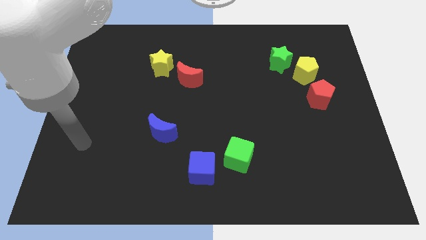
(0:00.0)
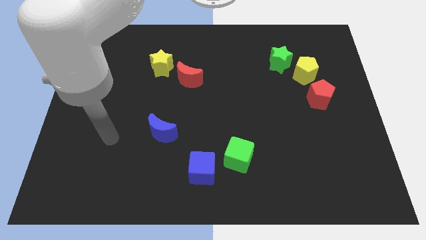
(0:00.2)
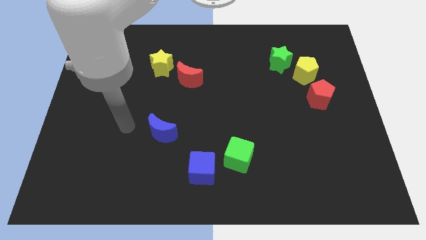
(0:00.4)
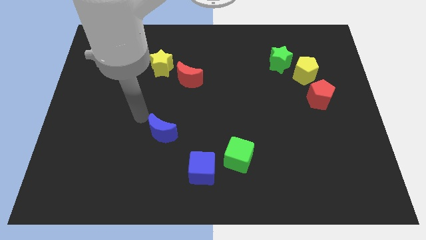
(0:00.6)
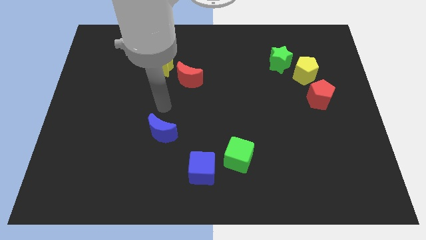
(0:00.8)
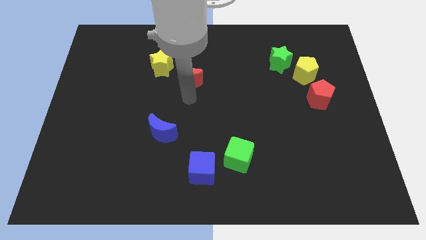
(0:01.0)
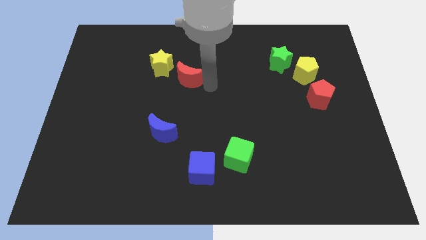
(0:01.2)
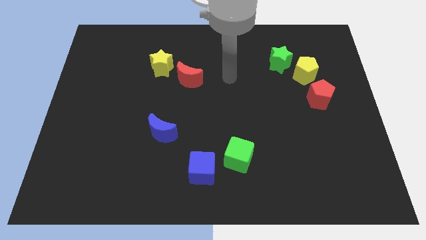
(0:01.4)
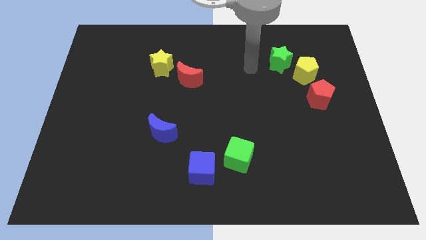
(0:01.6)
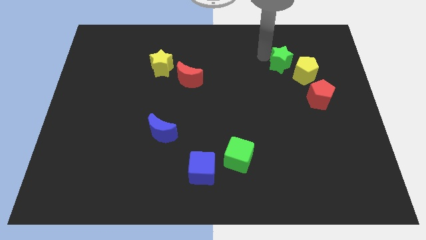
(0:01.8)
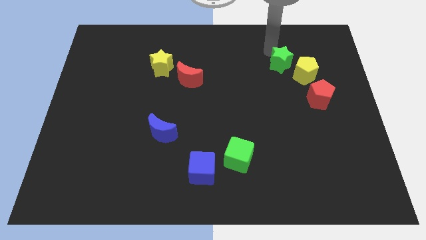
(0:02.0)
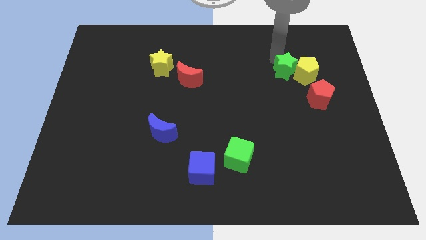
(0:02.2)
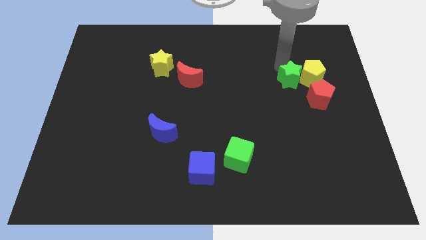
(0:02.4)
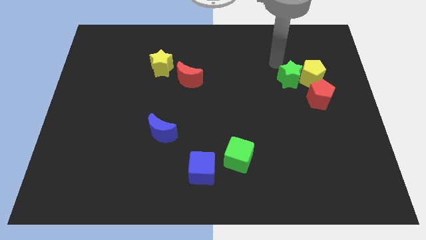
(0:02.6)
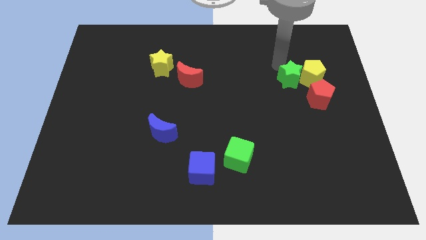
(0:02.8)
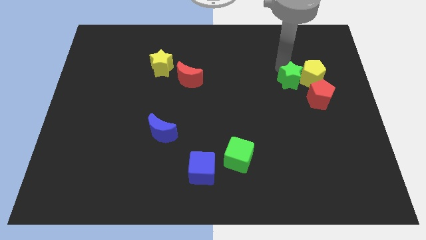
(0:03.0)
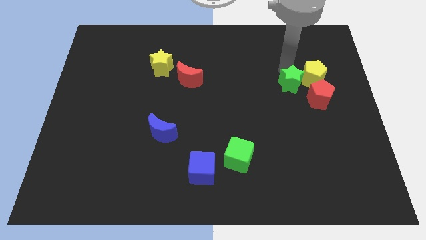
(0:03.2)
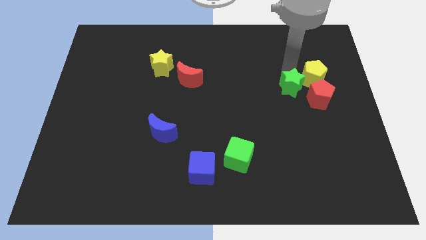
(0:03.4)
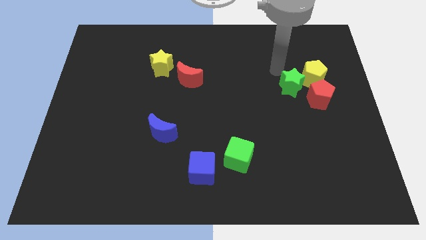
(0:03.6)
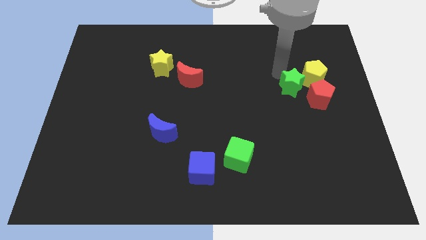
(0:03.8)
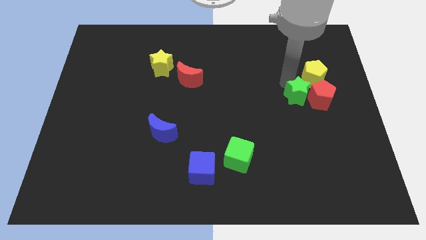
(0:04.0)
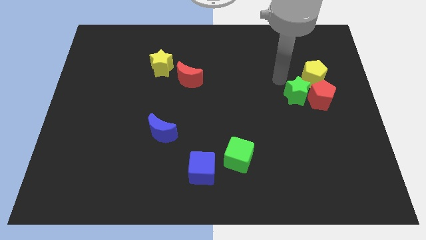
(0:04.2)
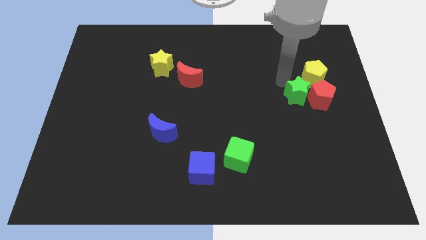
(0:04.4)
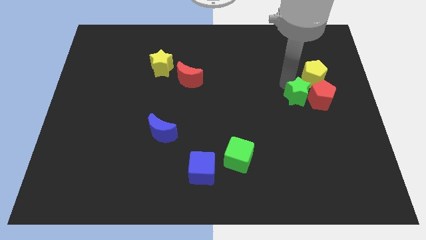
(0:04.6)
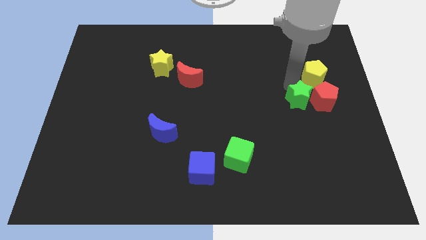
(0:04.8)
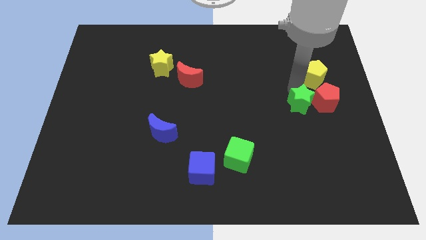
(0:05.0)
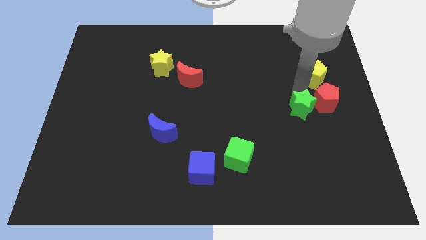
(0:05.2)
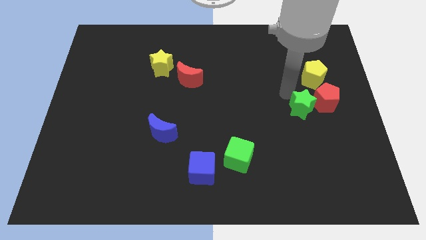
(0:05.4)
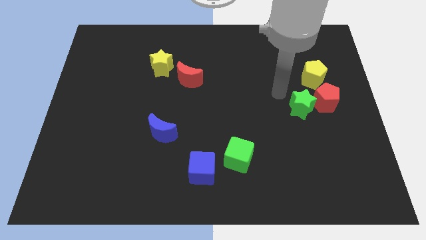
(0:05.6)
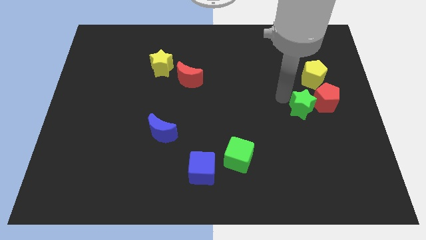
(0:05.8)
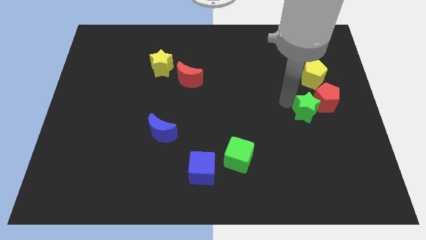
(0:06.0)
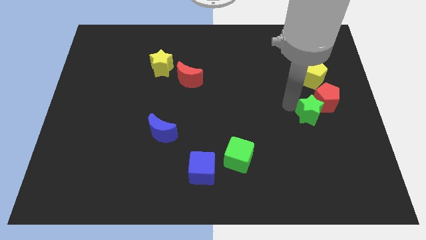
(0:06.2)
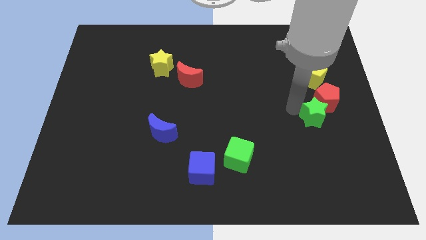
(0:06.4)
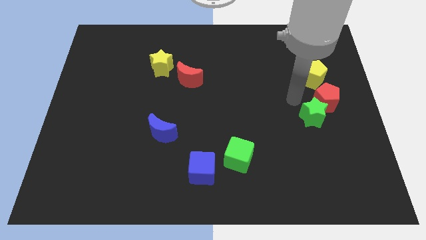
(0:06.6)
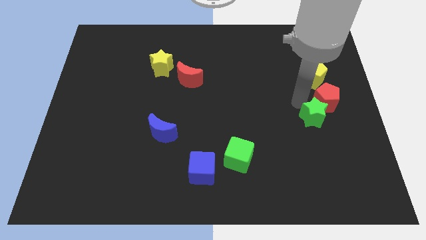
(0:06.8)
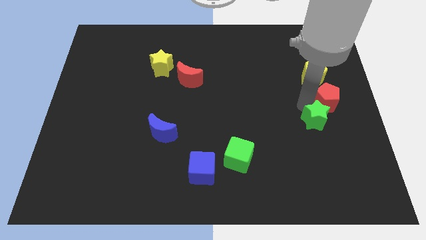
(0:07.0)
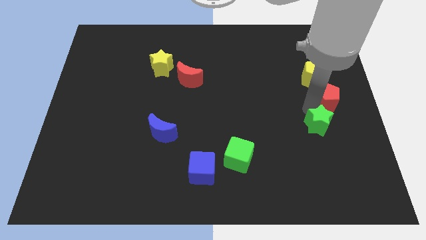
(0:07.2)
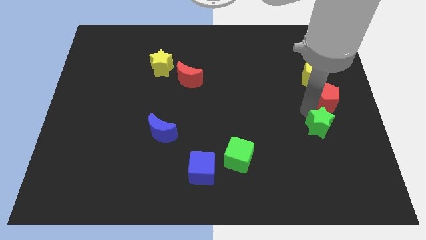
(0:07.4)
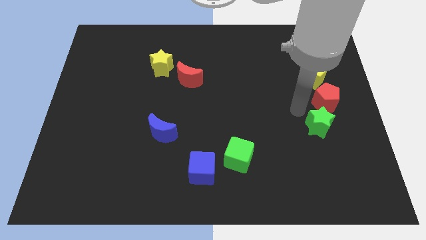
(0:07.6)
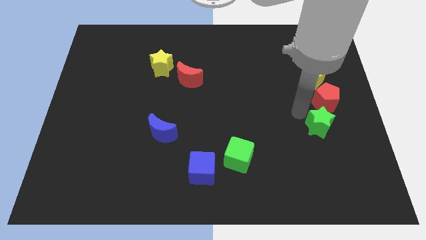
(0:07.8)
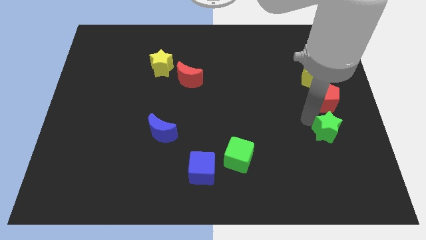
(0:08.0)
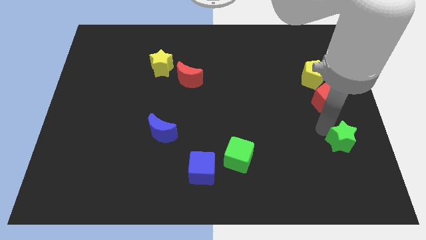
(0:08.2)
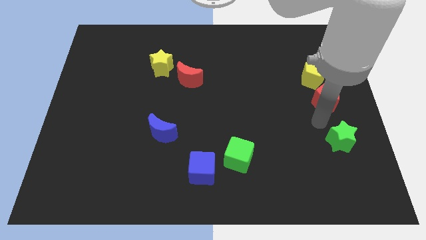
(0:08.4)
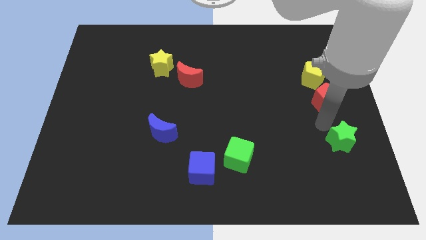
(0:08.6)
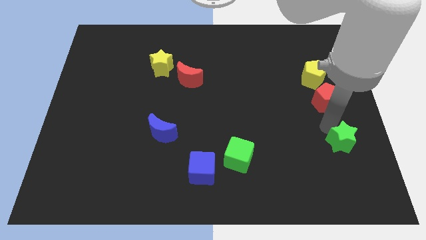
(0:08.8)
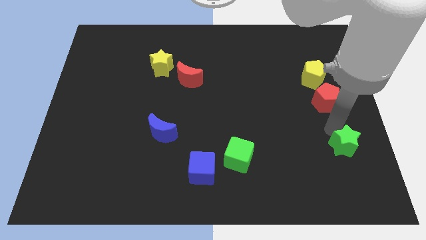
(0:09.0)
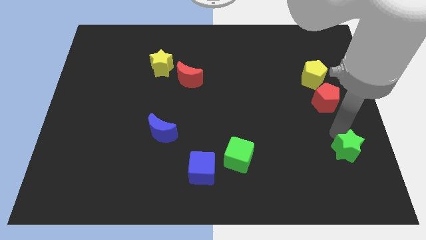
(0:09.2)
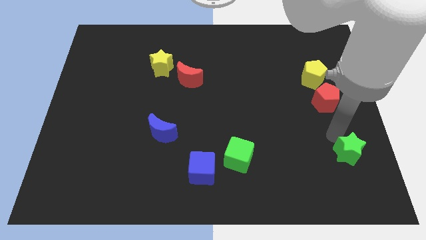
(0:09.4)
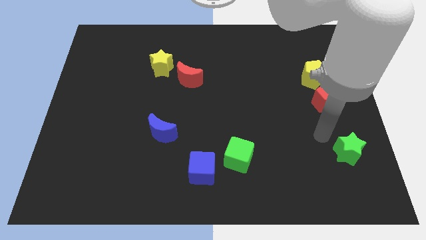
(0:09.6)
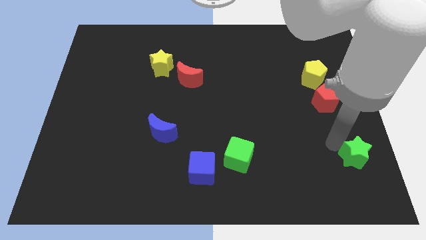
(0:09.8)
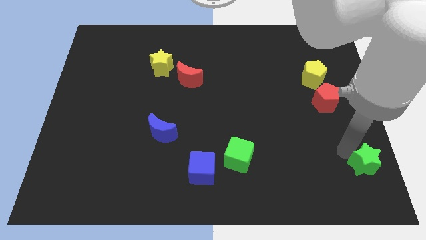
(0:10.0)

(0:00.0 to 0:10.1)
move the green star to the lower right corner

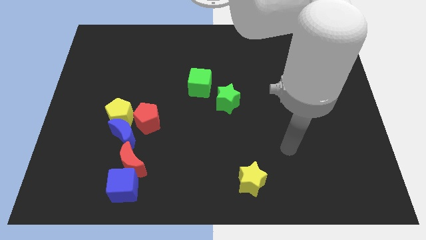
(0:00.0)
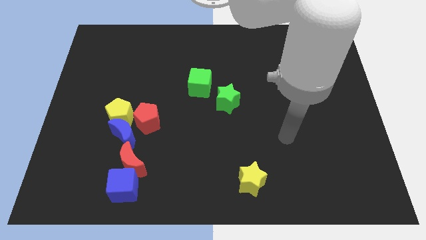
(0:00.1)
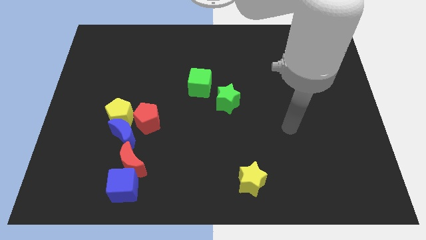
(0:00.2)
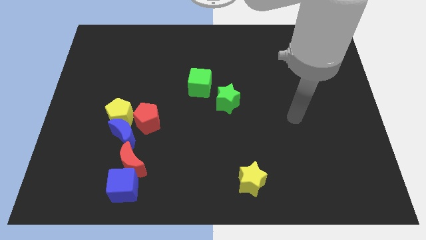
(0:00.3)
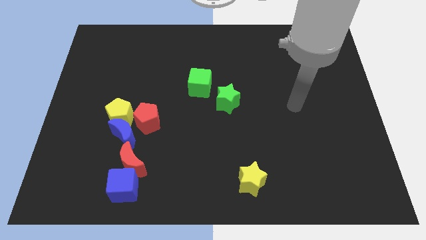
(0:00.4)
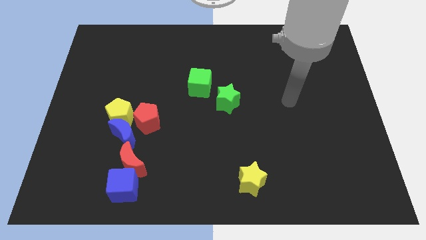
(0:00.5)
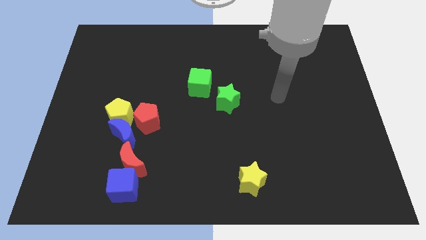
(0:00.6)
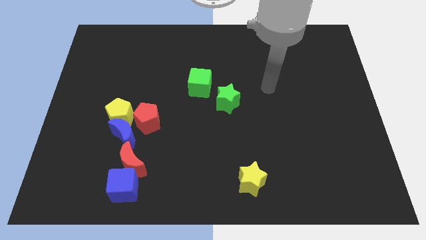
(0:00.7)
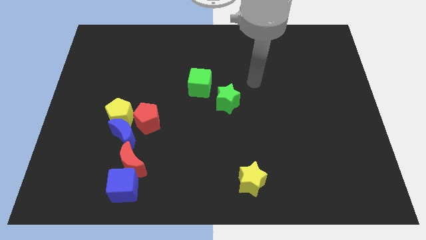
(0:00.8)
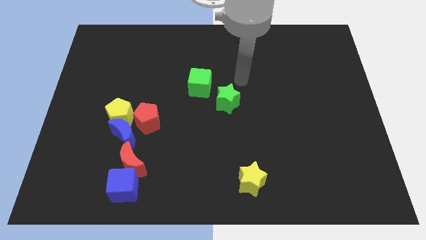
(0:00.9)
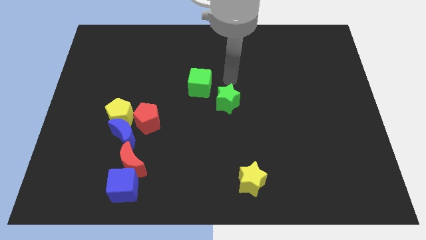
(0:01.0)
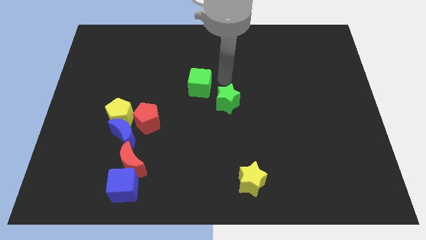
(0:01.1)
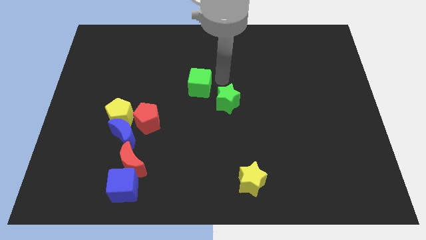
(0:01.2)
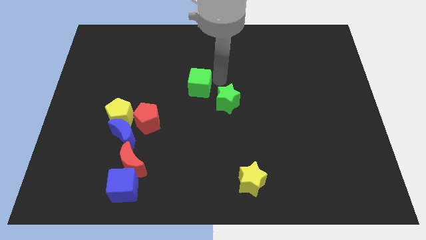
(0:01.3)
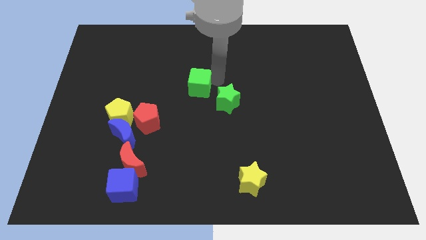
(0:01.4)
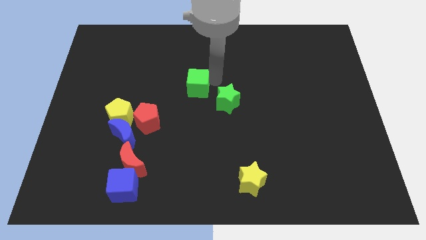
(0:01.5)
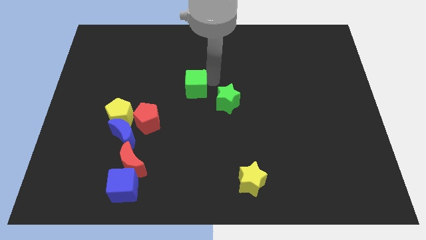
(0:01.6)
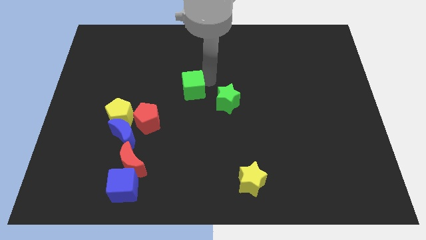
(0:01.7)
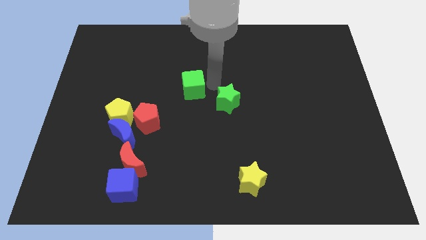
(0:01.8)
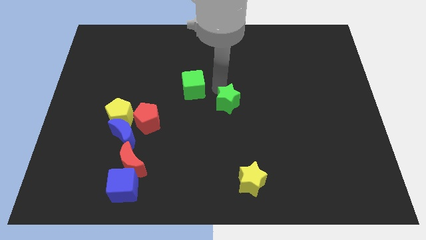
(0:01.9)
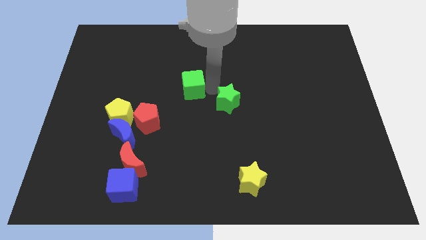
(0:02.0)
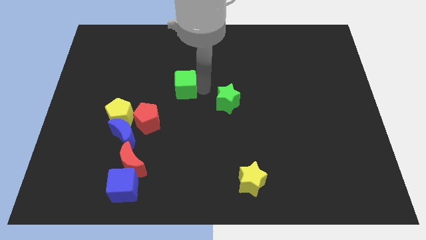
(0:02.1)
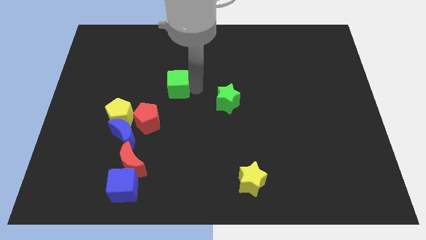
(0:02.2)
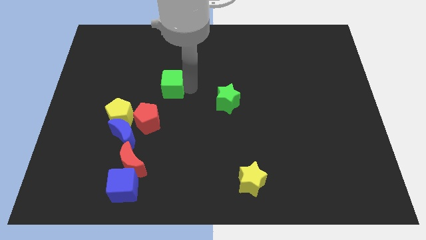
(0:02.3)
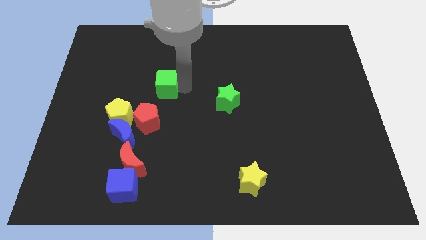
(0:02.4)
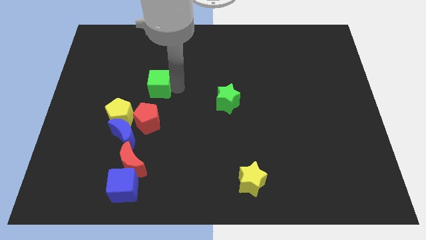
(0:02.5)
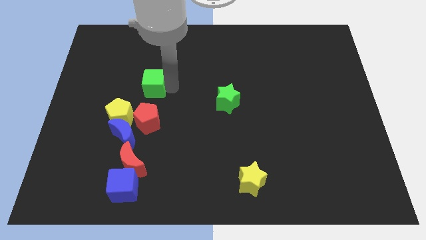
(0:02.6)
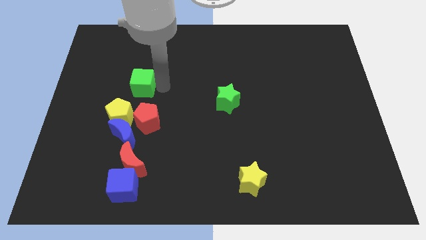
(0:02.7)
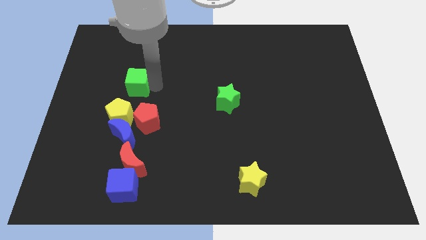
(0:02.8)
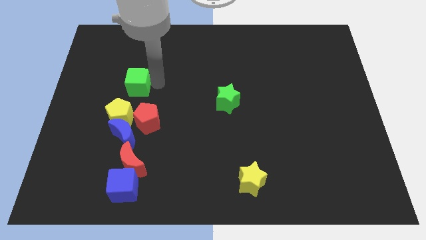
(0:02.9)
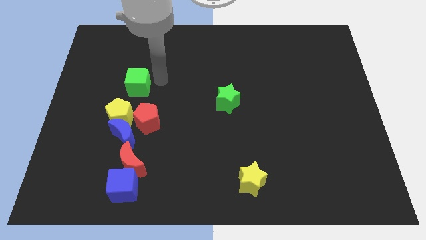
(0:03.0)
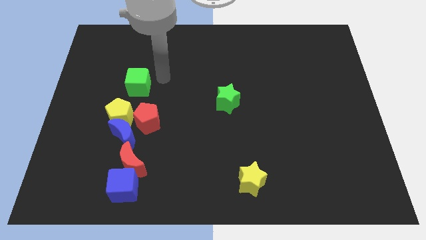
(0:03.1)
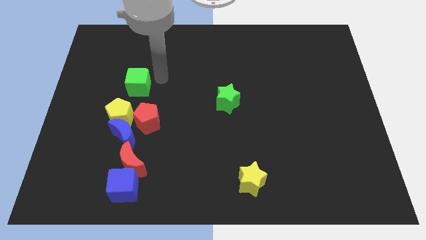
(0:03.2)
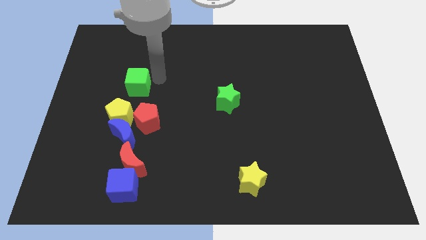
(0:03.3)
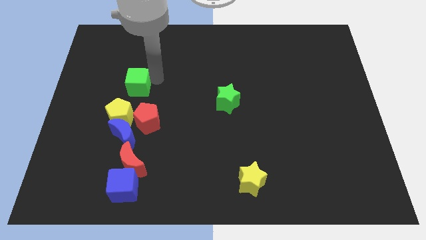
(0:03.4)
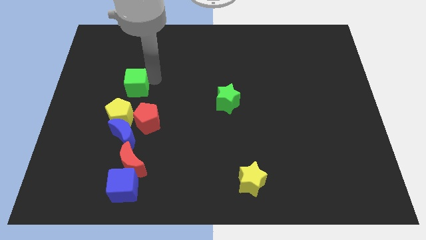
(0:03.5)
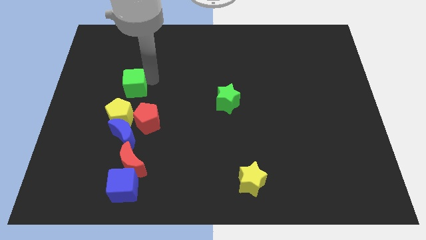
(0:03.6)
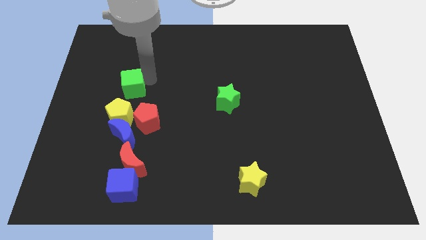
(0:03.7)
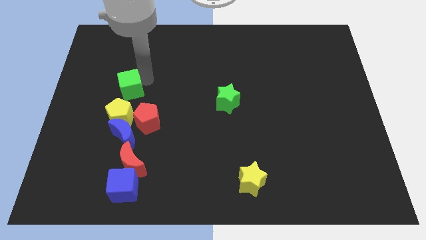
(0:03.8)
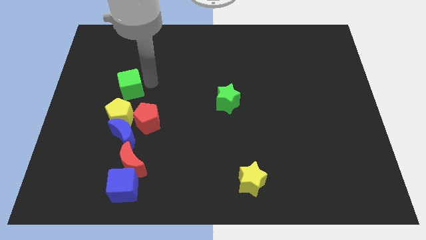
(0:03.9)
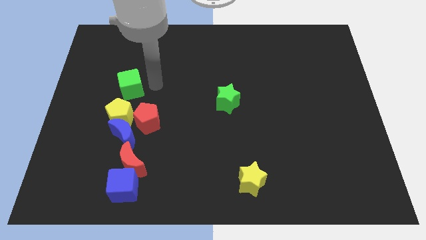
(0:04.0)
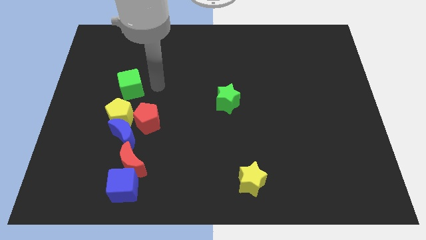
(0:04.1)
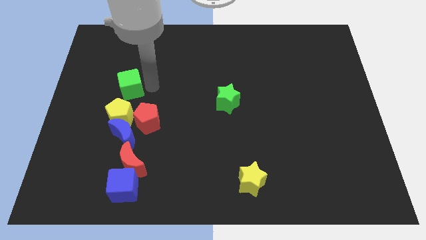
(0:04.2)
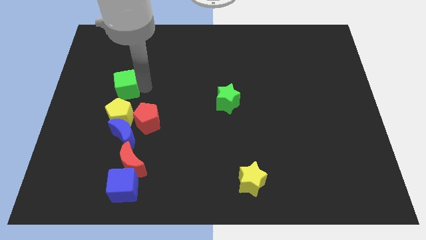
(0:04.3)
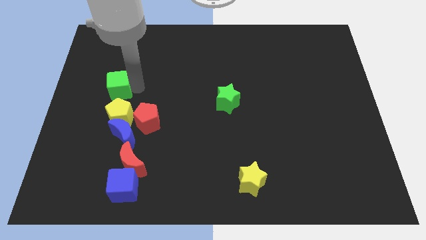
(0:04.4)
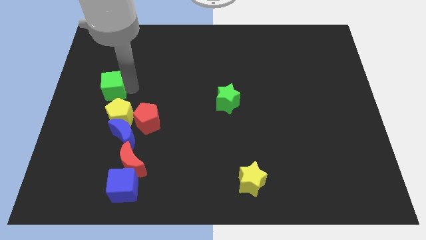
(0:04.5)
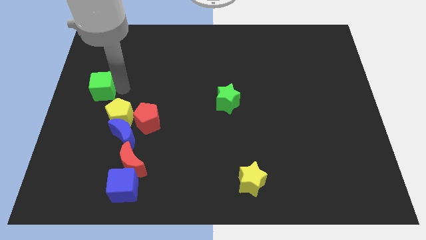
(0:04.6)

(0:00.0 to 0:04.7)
push the green cube to the center left
